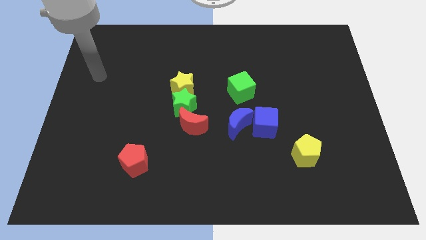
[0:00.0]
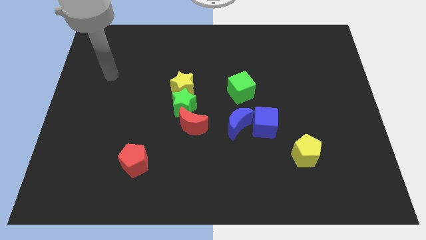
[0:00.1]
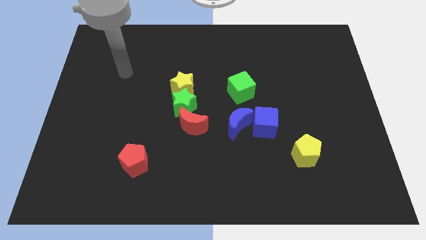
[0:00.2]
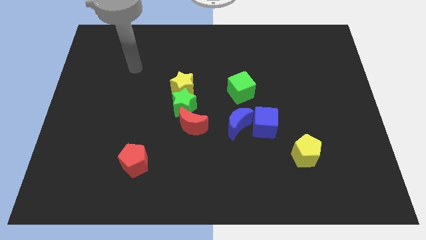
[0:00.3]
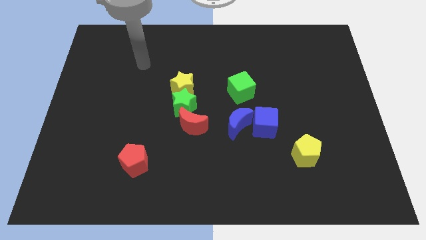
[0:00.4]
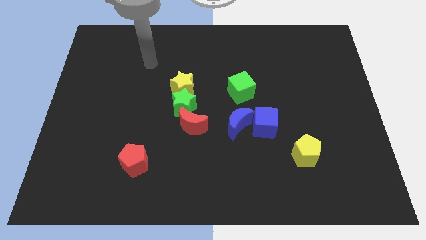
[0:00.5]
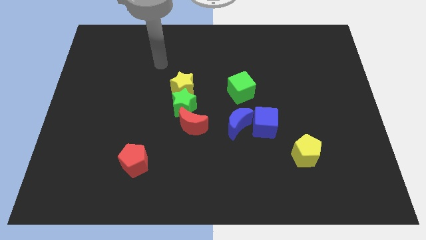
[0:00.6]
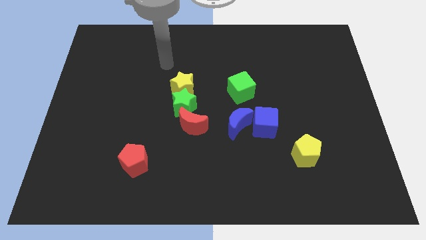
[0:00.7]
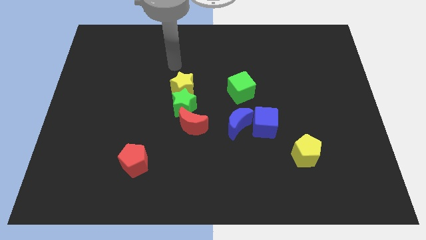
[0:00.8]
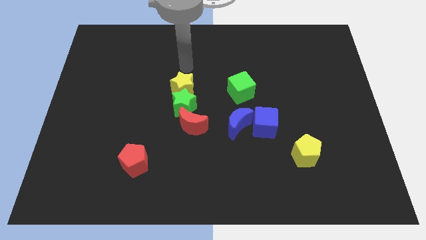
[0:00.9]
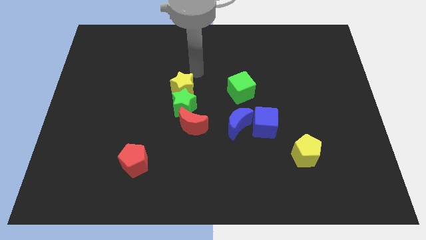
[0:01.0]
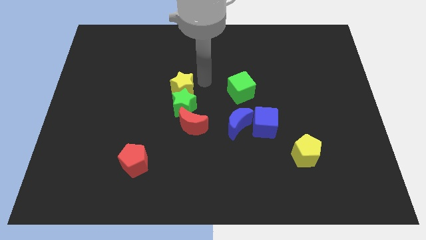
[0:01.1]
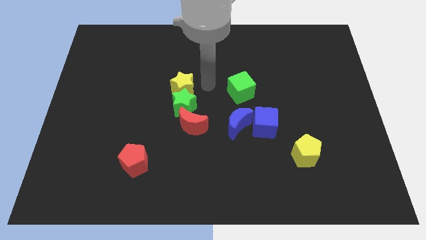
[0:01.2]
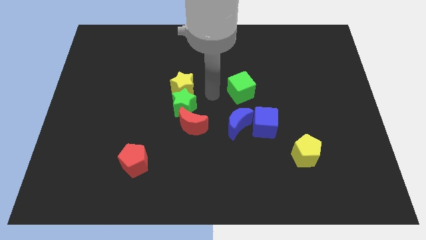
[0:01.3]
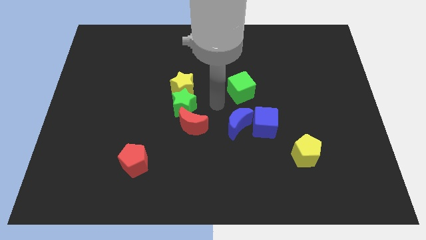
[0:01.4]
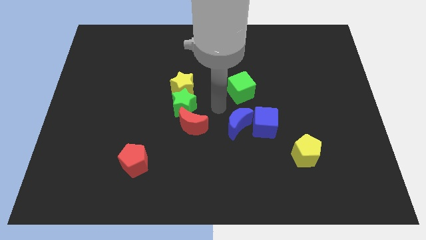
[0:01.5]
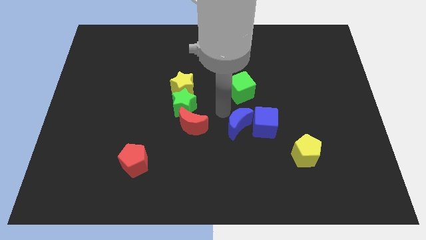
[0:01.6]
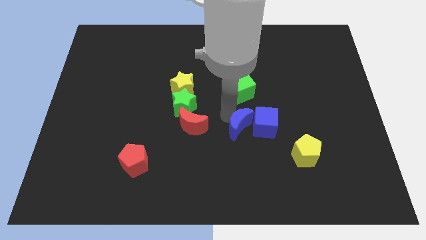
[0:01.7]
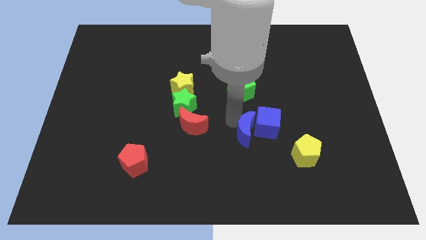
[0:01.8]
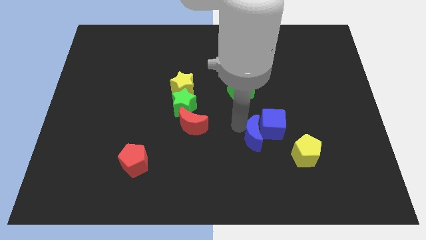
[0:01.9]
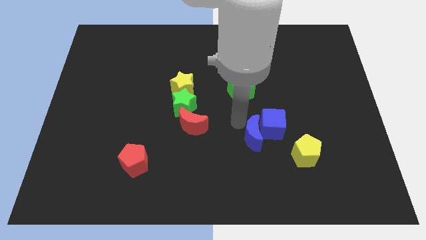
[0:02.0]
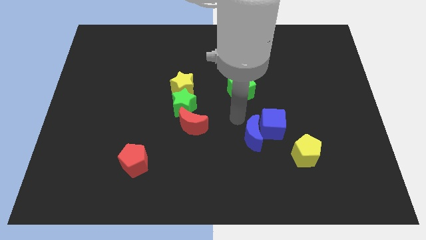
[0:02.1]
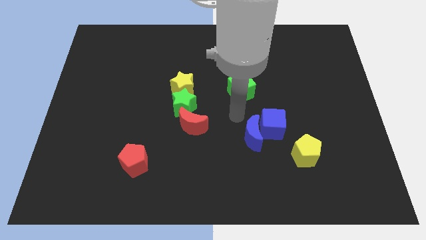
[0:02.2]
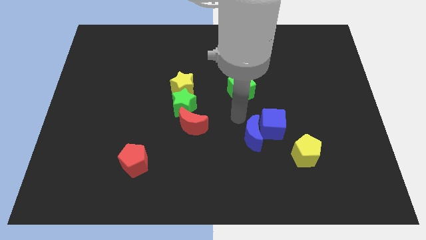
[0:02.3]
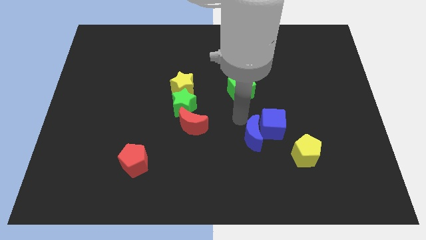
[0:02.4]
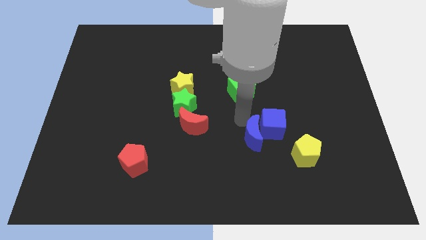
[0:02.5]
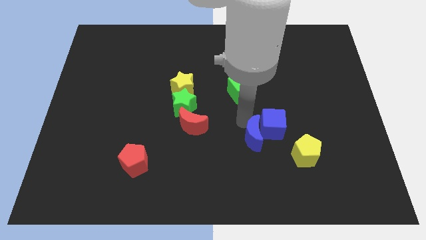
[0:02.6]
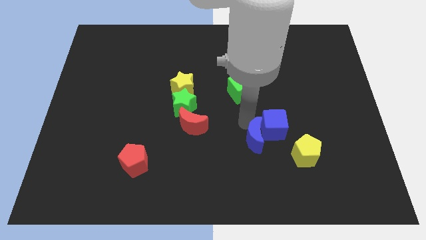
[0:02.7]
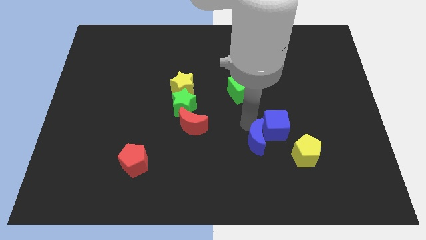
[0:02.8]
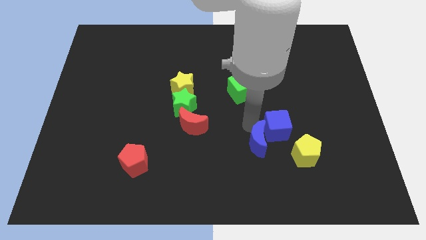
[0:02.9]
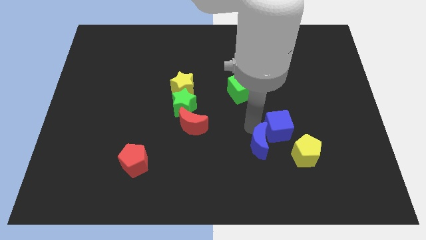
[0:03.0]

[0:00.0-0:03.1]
move the blue moon a bit downwards and to the right

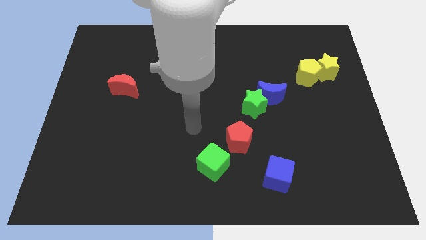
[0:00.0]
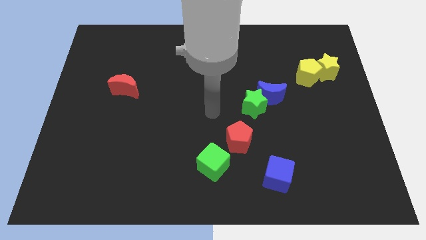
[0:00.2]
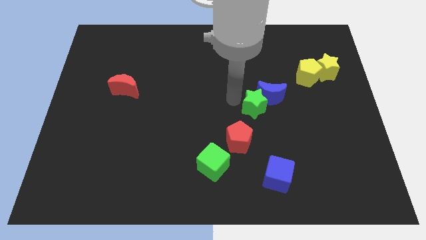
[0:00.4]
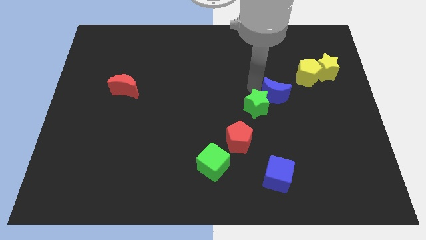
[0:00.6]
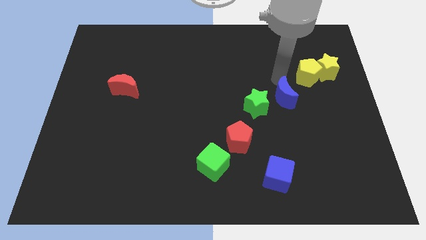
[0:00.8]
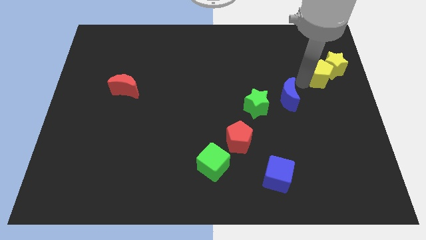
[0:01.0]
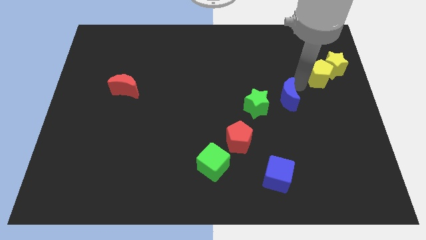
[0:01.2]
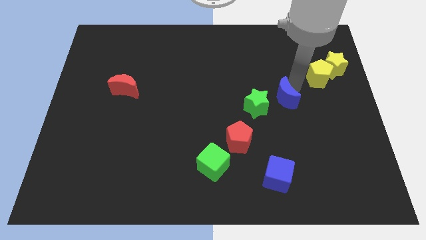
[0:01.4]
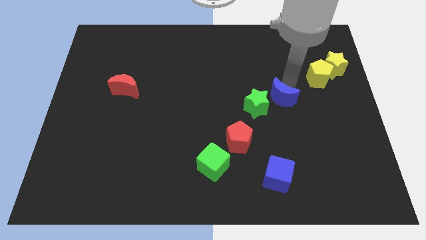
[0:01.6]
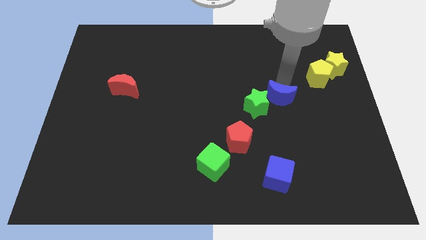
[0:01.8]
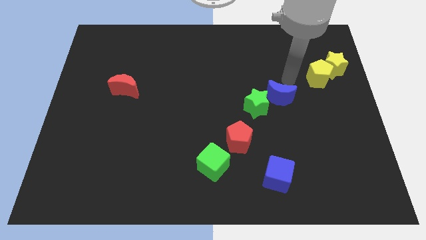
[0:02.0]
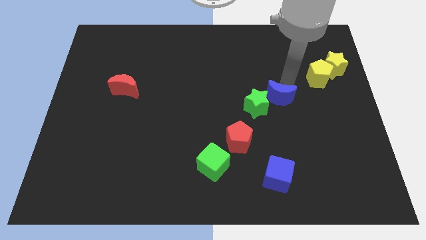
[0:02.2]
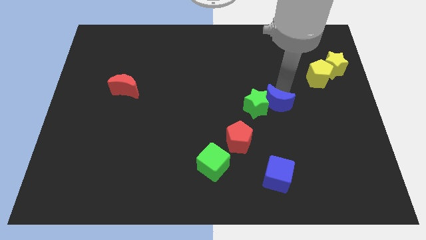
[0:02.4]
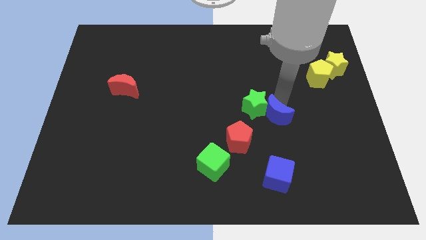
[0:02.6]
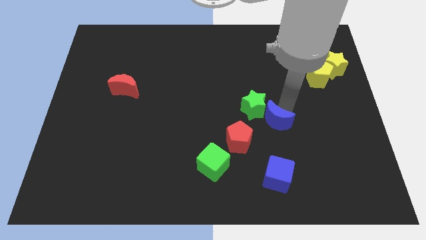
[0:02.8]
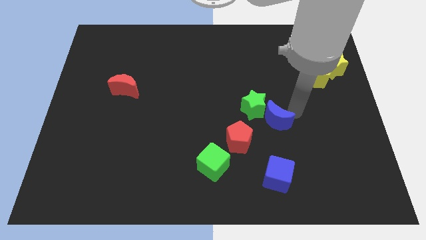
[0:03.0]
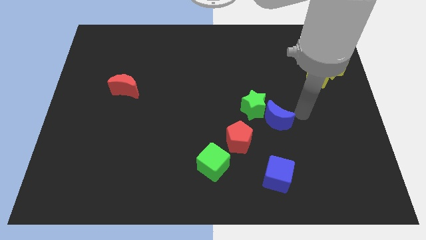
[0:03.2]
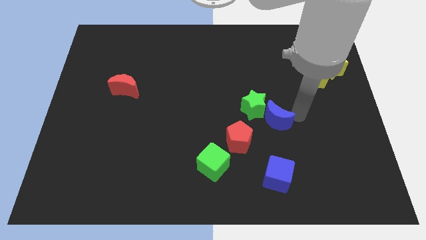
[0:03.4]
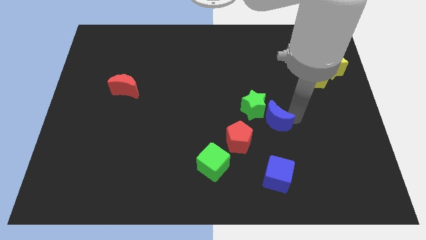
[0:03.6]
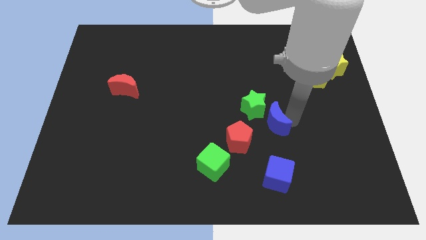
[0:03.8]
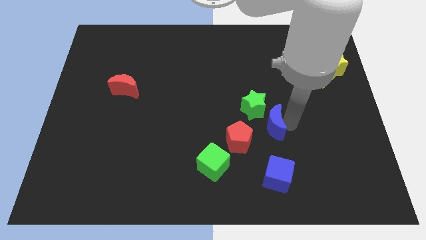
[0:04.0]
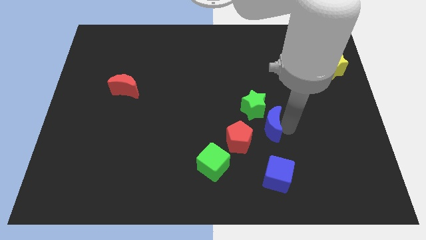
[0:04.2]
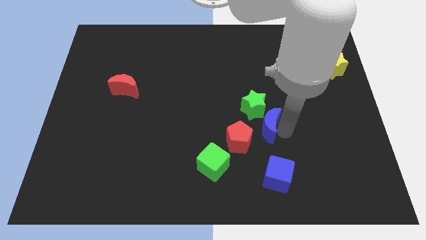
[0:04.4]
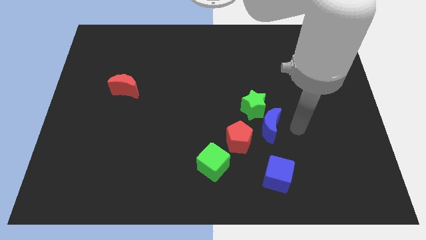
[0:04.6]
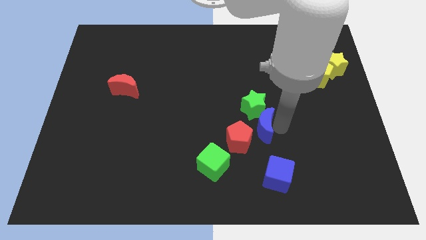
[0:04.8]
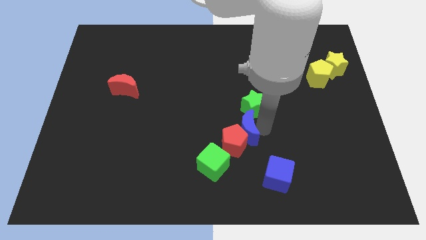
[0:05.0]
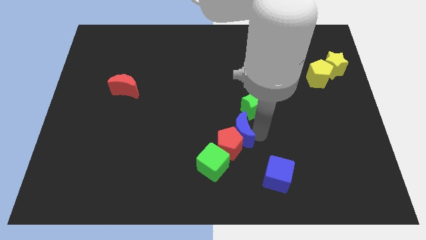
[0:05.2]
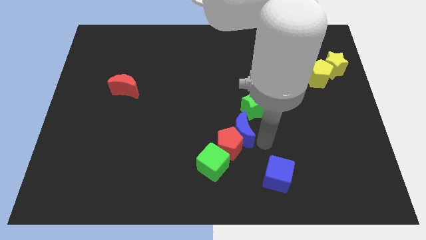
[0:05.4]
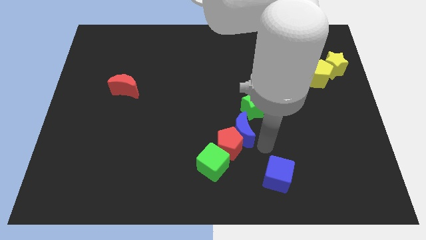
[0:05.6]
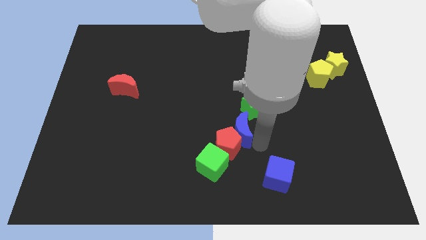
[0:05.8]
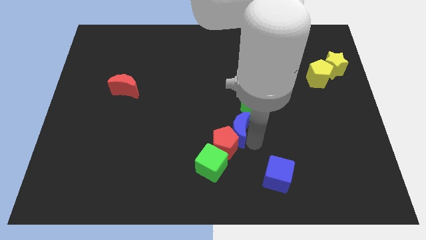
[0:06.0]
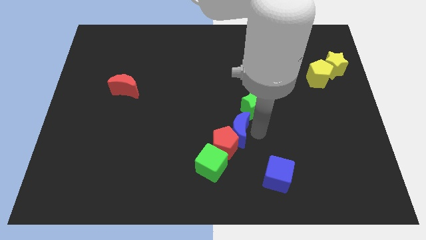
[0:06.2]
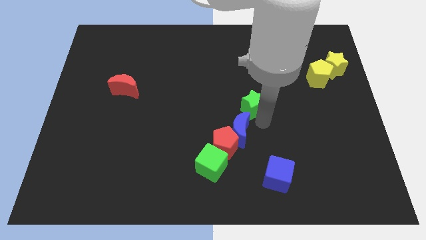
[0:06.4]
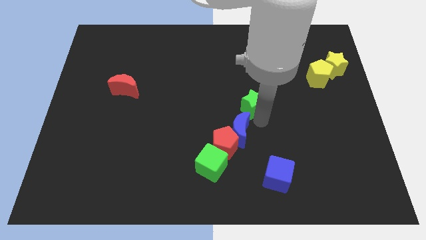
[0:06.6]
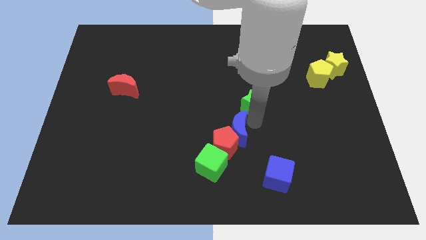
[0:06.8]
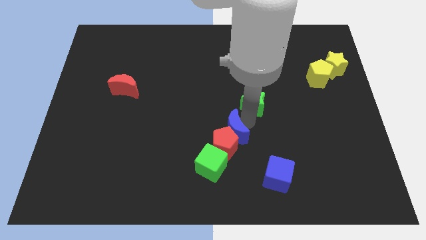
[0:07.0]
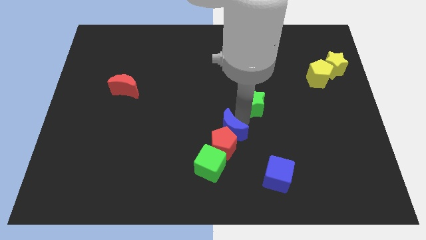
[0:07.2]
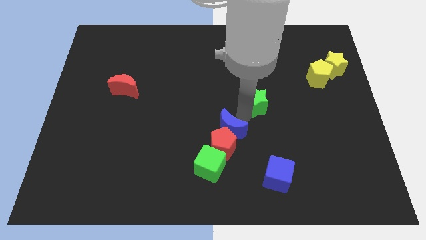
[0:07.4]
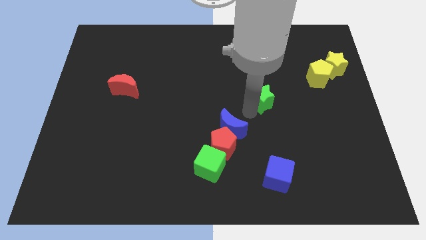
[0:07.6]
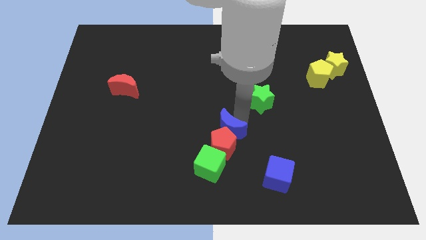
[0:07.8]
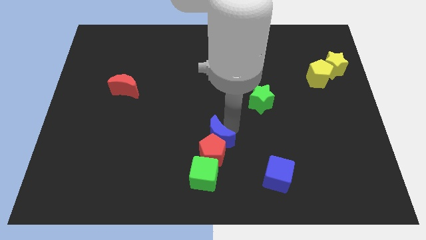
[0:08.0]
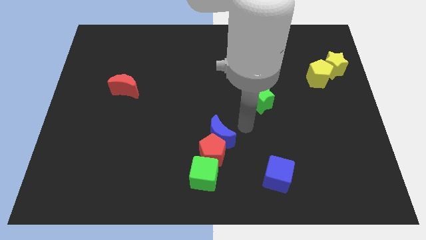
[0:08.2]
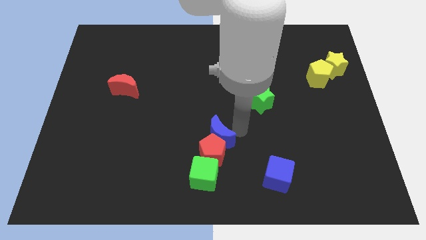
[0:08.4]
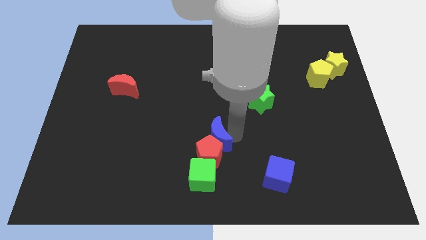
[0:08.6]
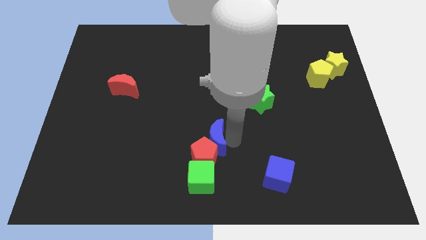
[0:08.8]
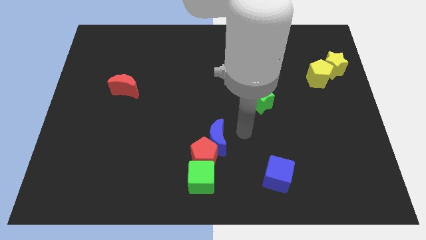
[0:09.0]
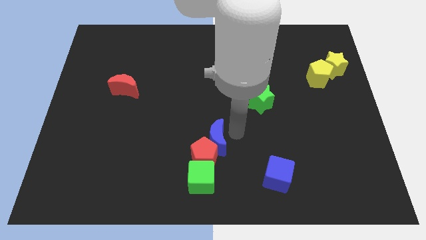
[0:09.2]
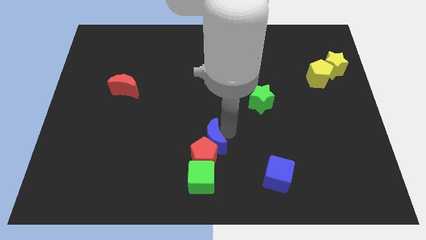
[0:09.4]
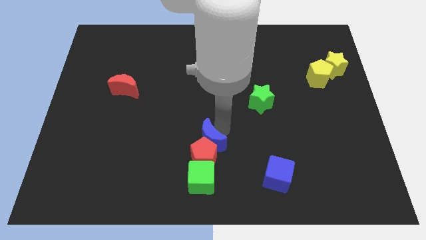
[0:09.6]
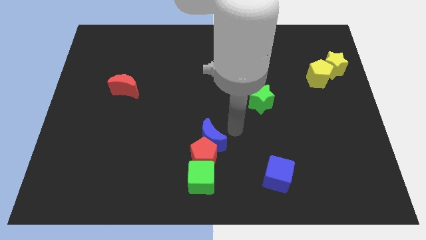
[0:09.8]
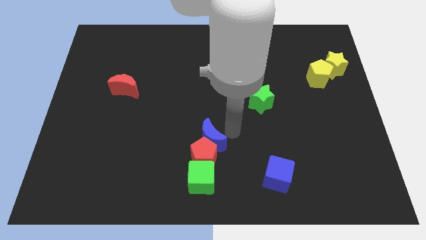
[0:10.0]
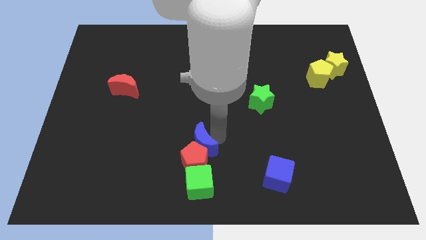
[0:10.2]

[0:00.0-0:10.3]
move the blue moon diagonally downwards and to the left
